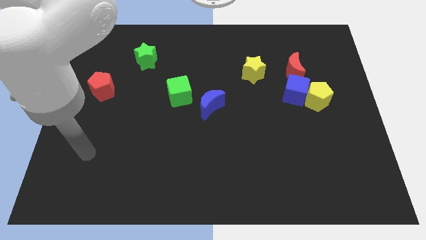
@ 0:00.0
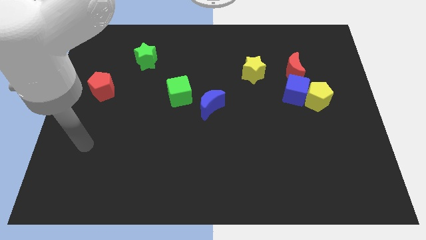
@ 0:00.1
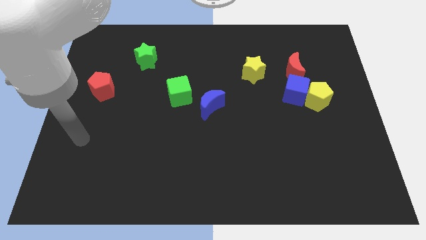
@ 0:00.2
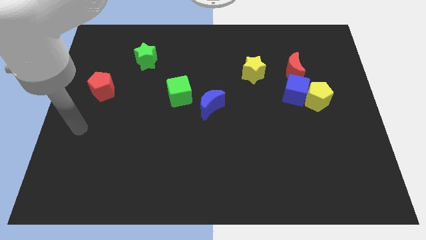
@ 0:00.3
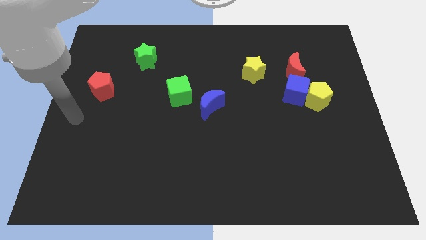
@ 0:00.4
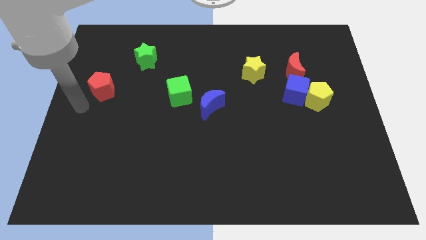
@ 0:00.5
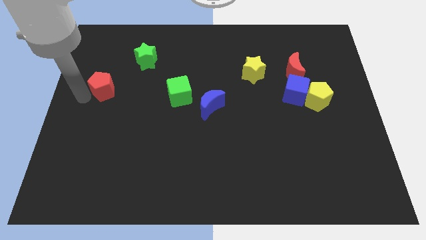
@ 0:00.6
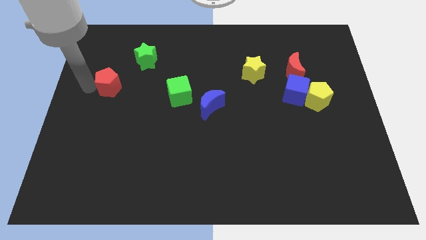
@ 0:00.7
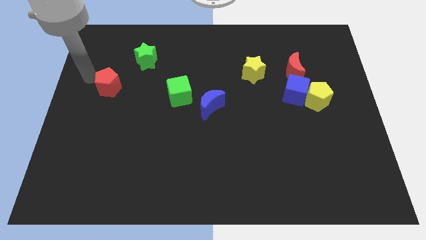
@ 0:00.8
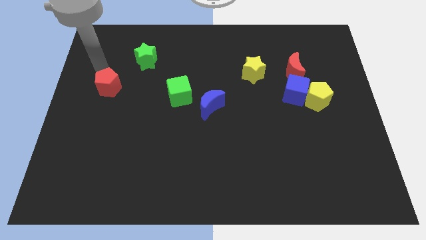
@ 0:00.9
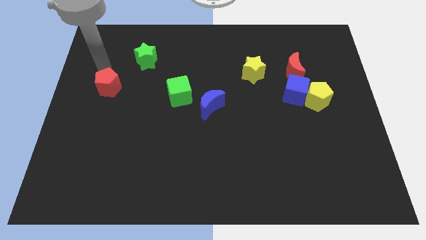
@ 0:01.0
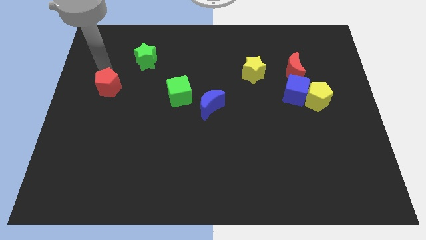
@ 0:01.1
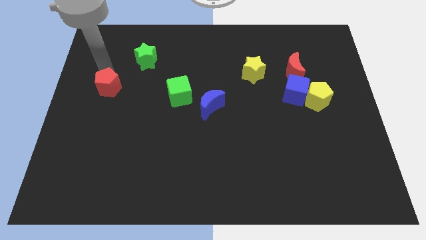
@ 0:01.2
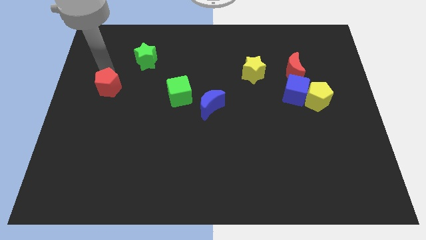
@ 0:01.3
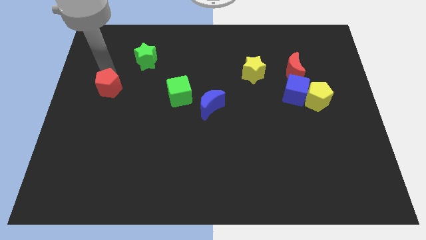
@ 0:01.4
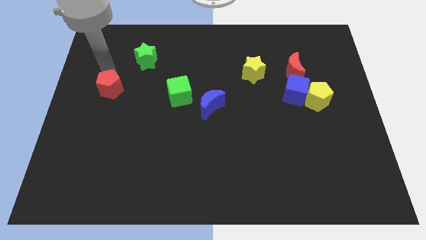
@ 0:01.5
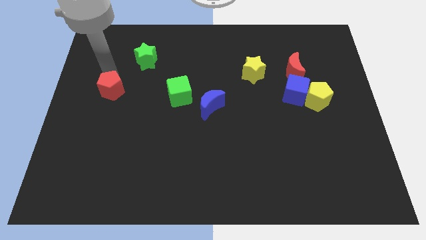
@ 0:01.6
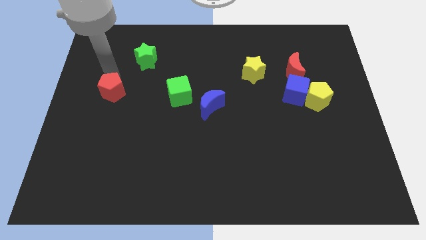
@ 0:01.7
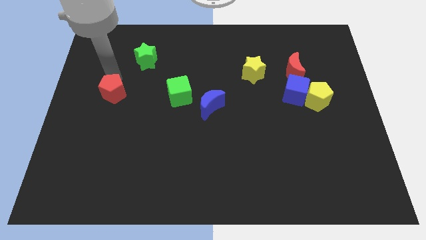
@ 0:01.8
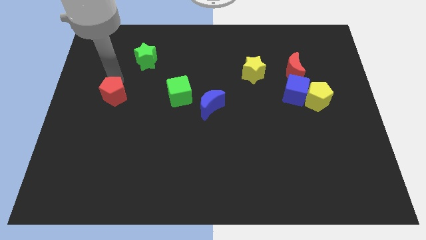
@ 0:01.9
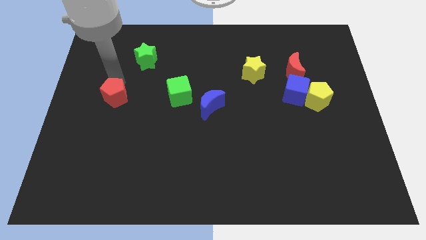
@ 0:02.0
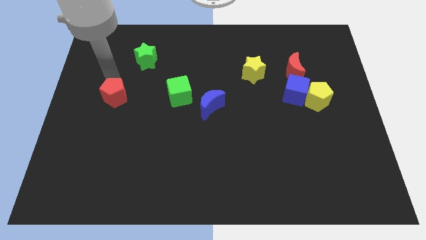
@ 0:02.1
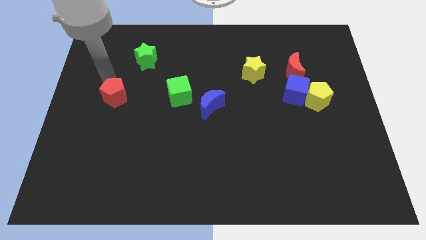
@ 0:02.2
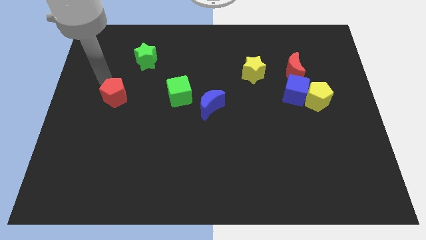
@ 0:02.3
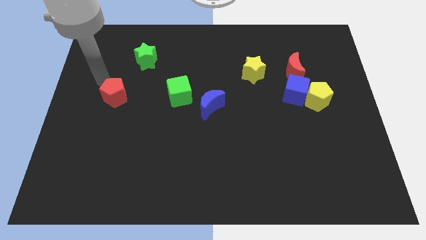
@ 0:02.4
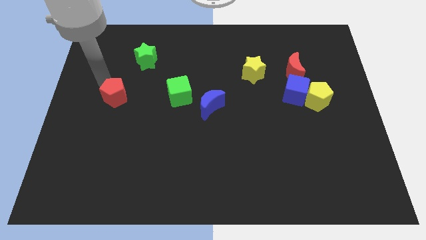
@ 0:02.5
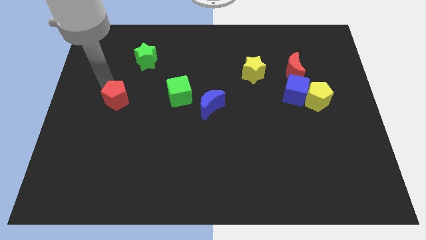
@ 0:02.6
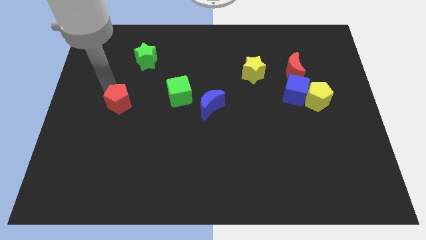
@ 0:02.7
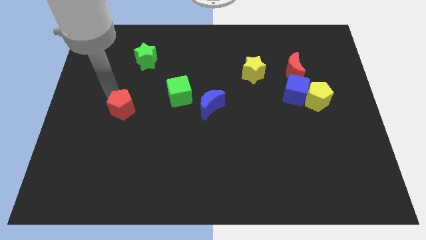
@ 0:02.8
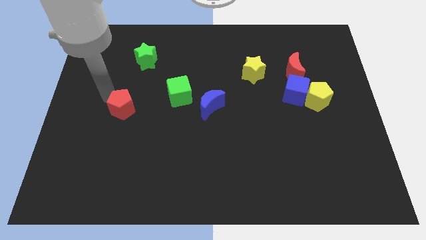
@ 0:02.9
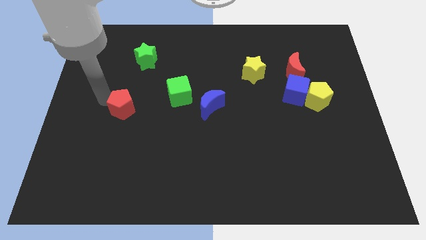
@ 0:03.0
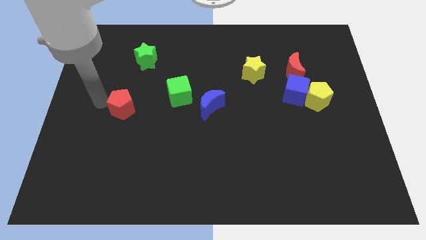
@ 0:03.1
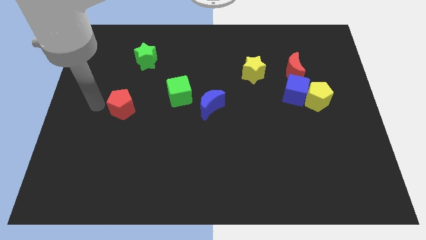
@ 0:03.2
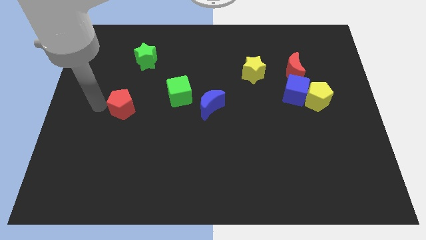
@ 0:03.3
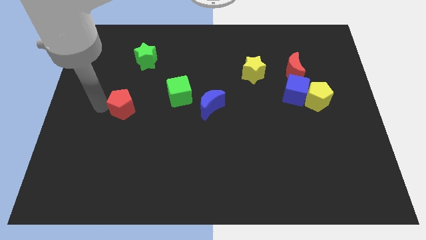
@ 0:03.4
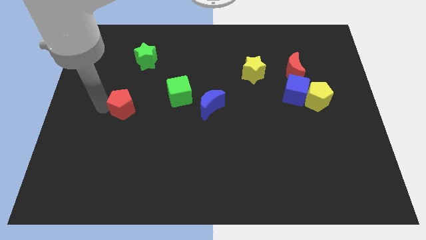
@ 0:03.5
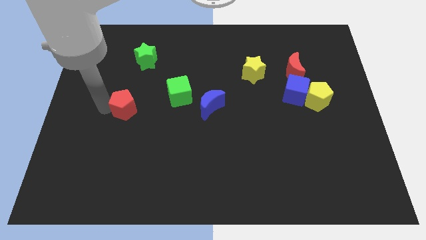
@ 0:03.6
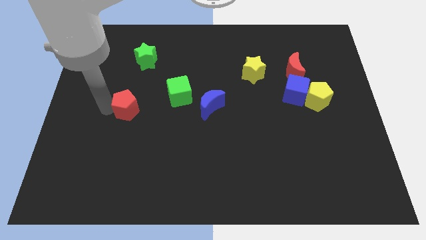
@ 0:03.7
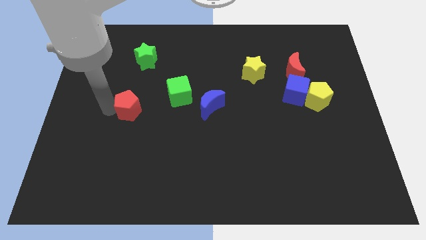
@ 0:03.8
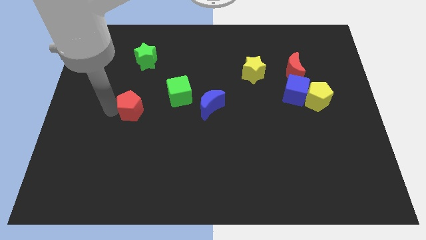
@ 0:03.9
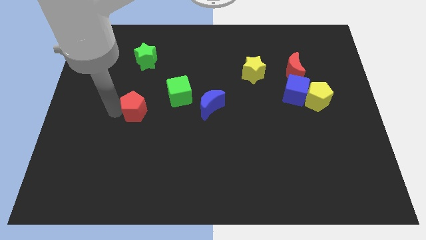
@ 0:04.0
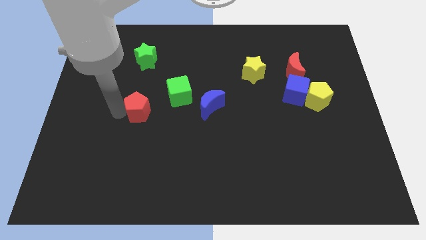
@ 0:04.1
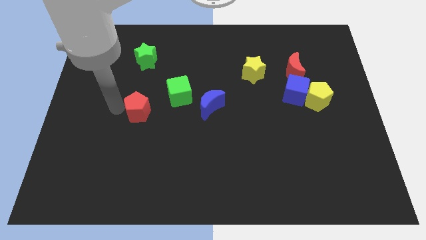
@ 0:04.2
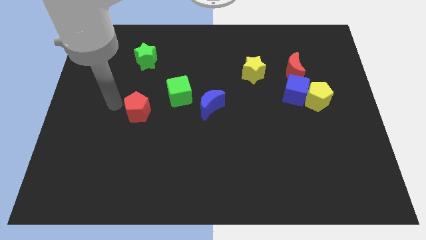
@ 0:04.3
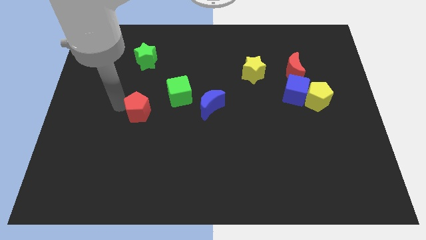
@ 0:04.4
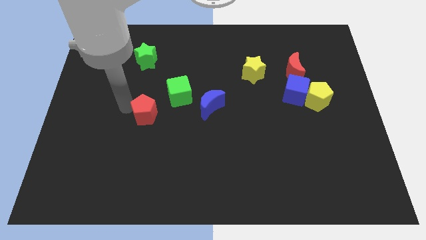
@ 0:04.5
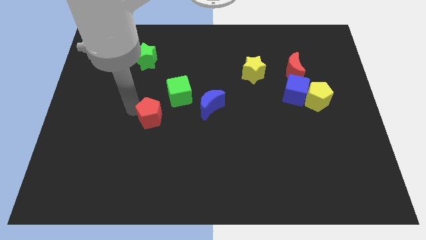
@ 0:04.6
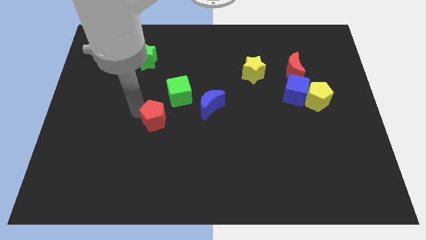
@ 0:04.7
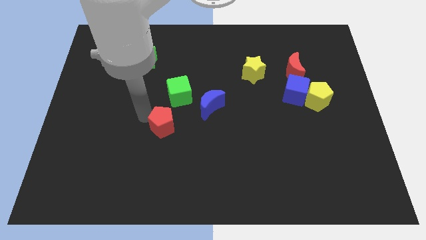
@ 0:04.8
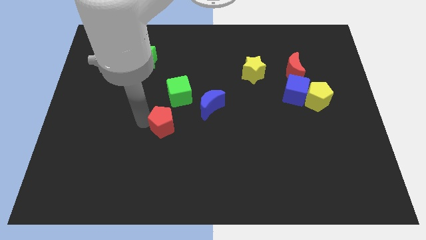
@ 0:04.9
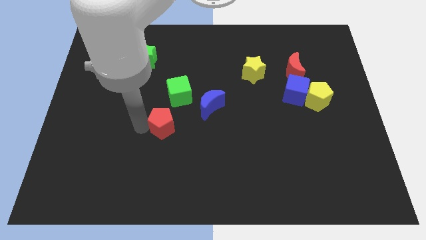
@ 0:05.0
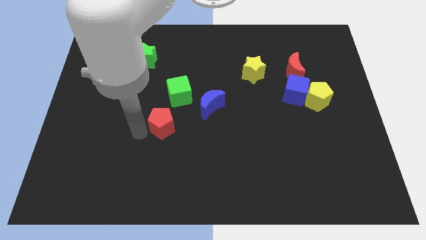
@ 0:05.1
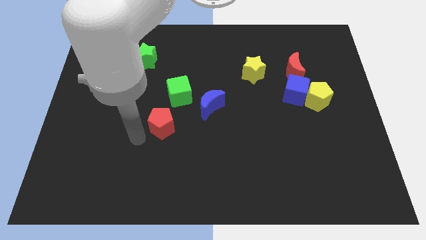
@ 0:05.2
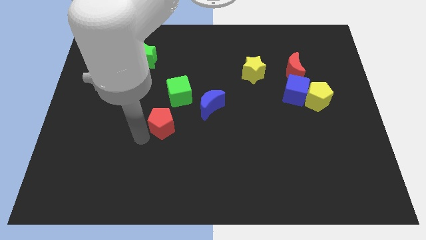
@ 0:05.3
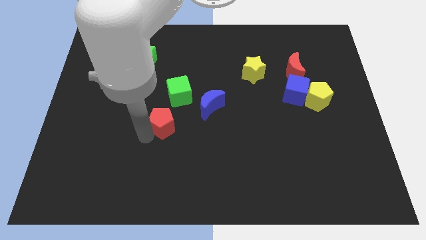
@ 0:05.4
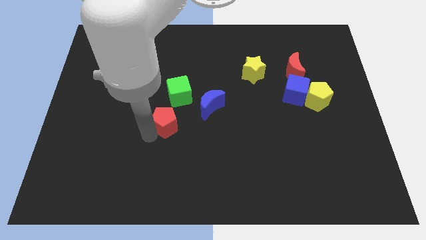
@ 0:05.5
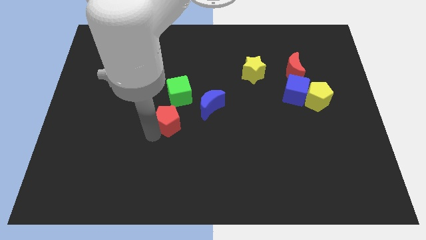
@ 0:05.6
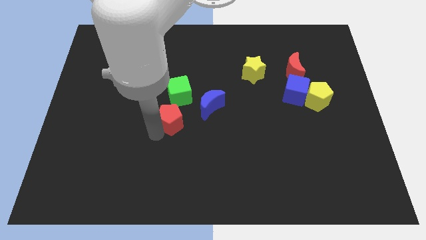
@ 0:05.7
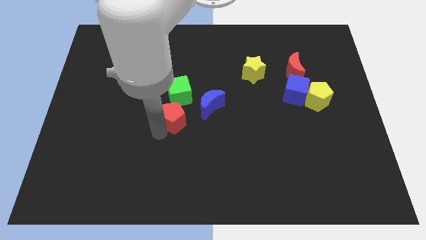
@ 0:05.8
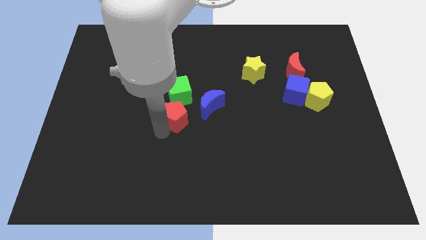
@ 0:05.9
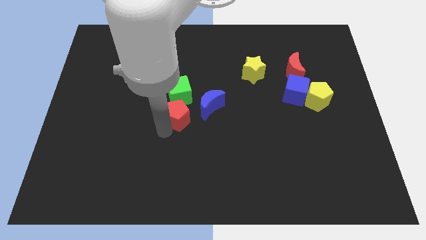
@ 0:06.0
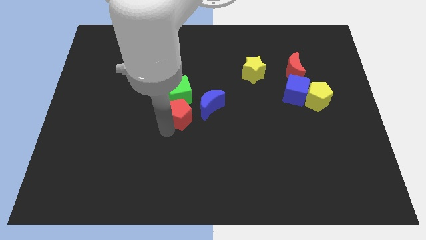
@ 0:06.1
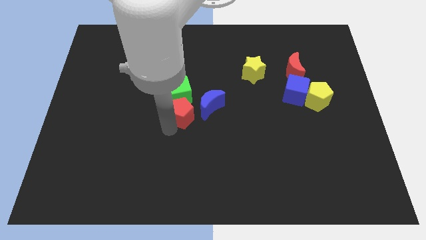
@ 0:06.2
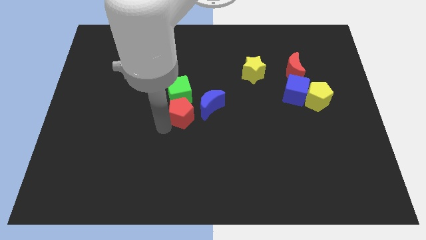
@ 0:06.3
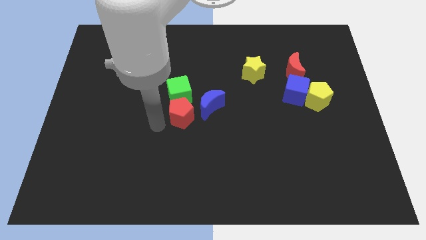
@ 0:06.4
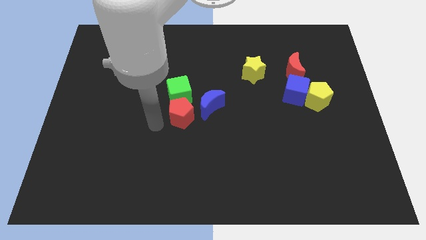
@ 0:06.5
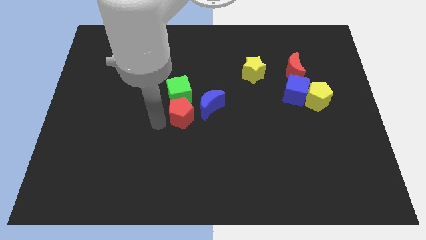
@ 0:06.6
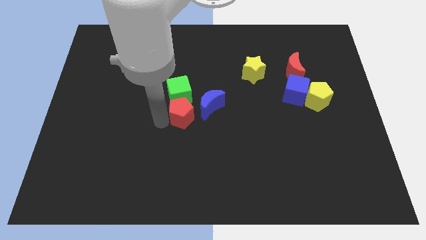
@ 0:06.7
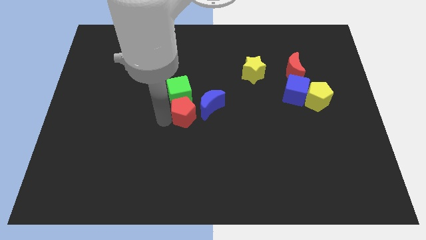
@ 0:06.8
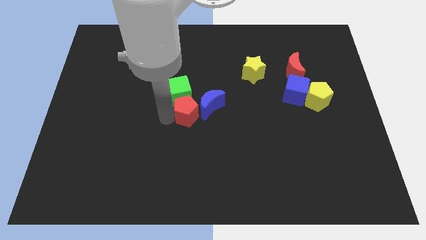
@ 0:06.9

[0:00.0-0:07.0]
move the red pentagon to the blue moon
